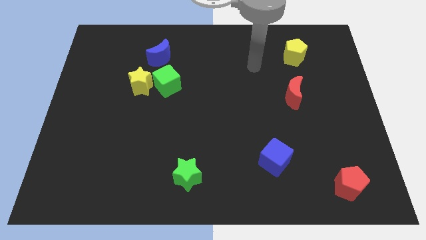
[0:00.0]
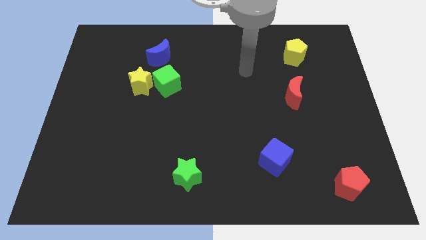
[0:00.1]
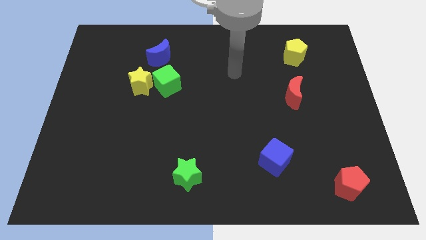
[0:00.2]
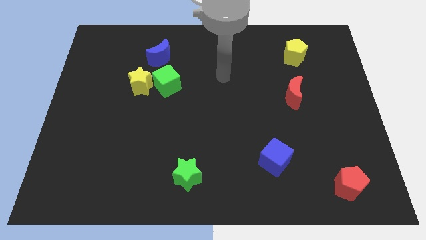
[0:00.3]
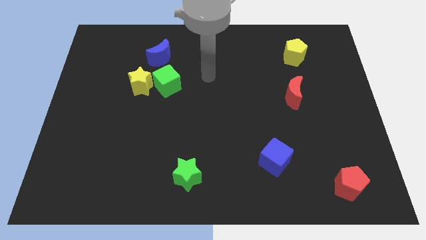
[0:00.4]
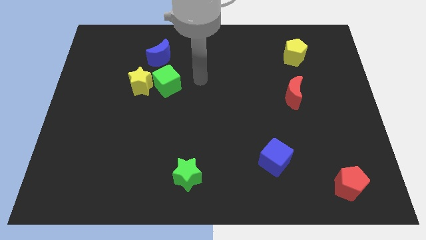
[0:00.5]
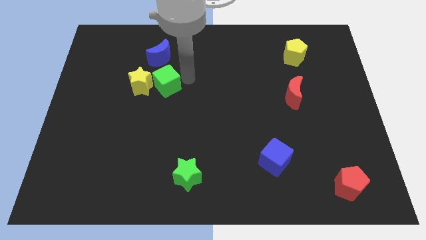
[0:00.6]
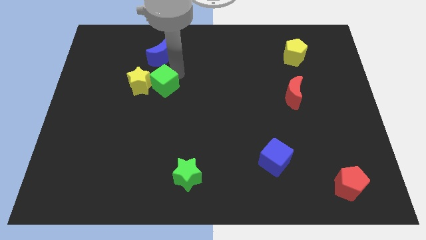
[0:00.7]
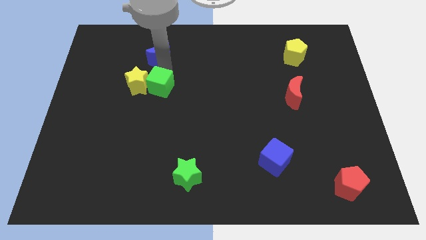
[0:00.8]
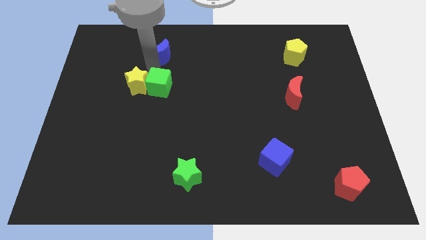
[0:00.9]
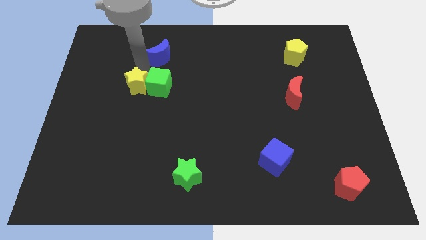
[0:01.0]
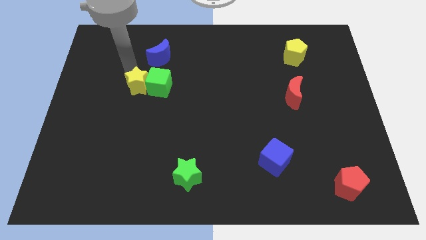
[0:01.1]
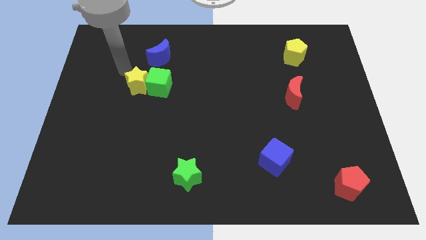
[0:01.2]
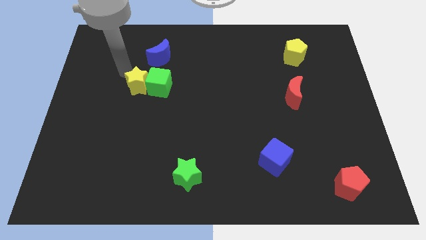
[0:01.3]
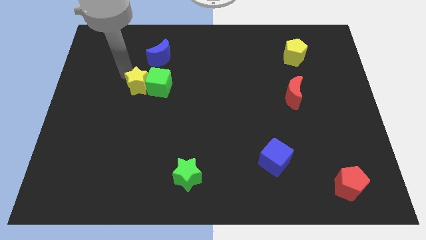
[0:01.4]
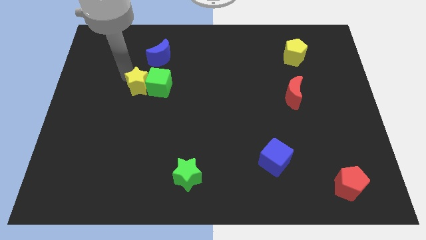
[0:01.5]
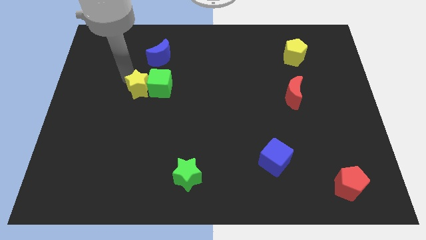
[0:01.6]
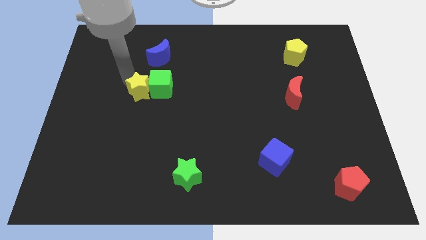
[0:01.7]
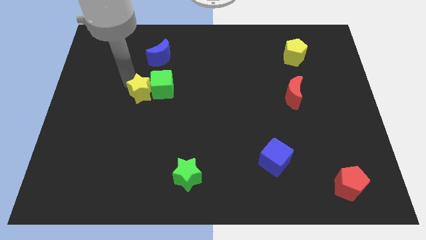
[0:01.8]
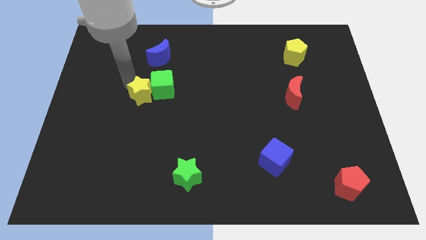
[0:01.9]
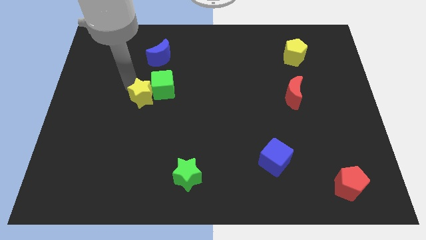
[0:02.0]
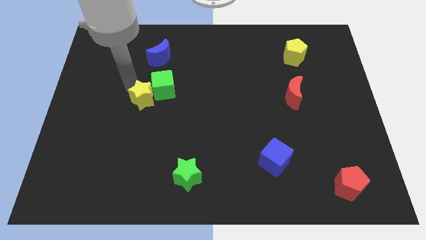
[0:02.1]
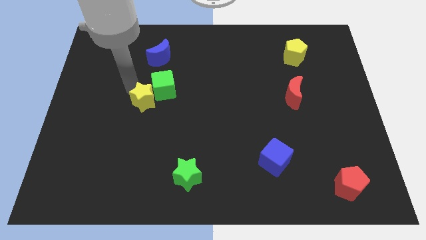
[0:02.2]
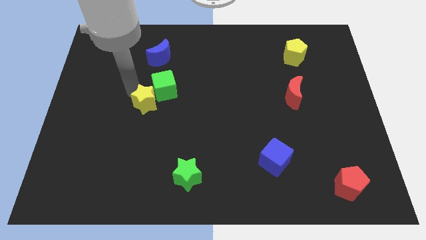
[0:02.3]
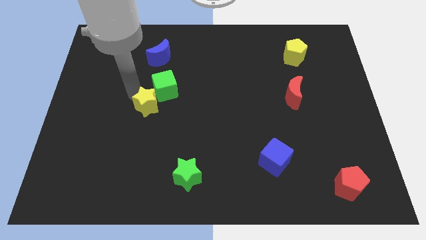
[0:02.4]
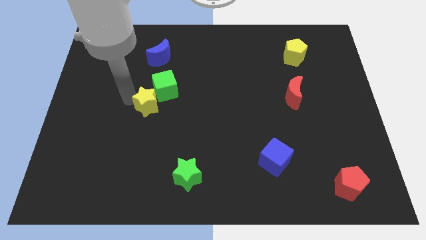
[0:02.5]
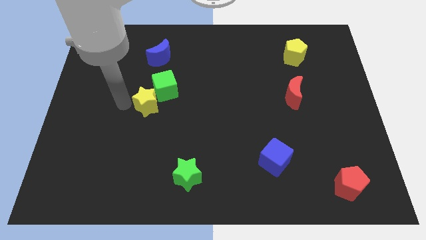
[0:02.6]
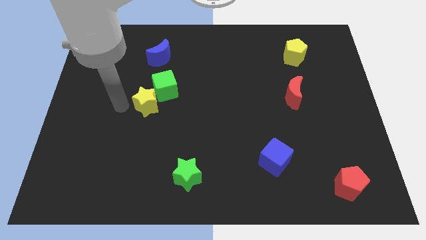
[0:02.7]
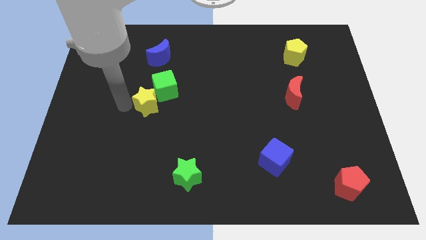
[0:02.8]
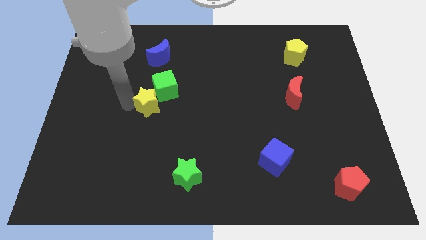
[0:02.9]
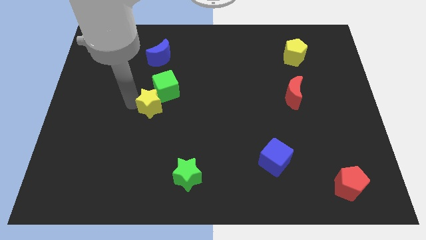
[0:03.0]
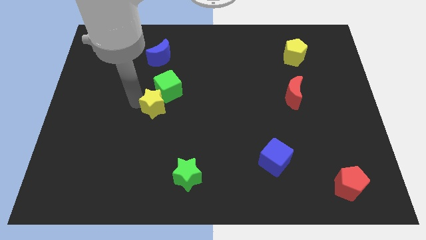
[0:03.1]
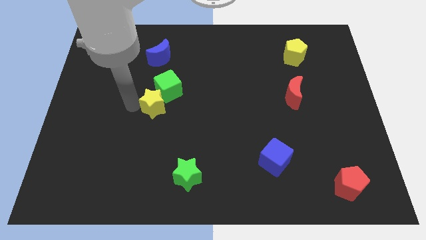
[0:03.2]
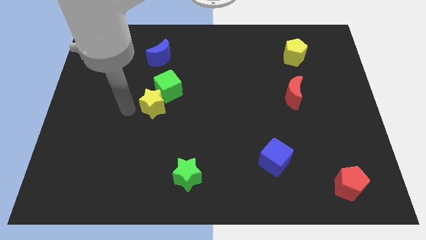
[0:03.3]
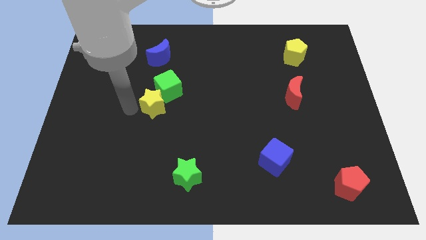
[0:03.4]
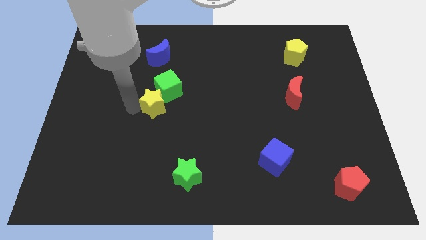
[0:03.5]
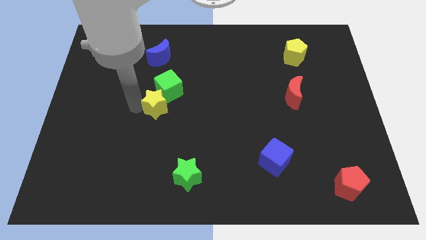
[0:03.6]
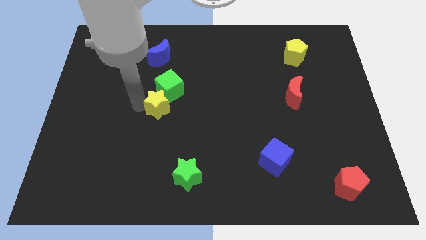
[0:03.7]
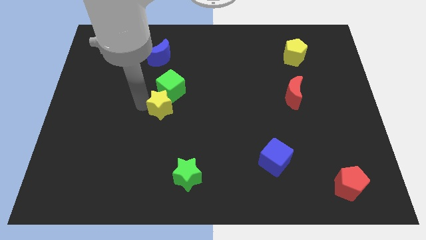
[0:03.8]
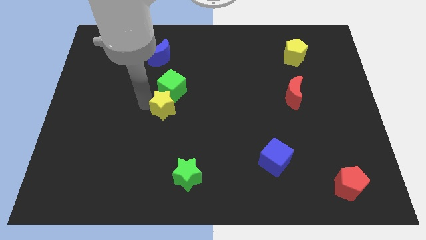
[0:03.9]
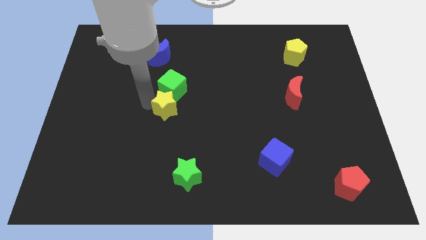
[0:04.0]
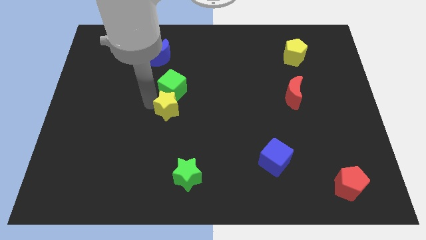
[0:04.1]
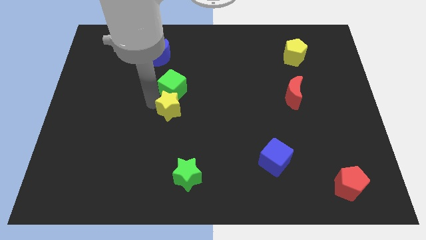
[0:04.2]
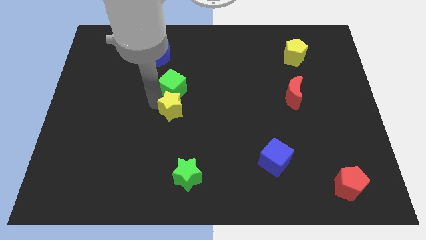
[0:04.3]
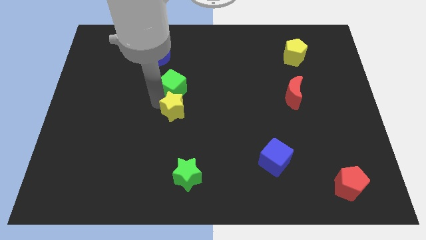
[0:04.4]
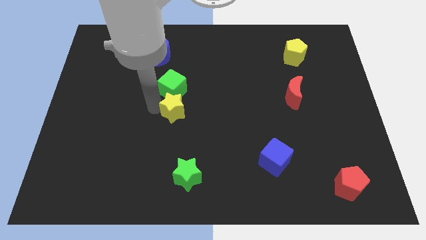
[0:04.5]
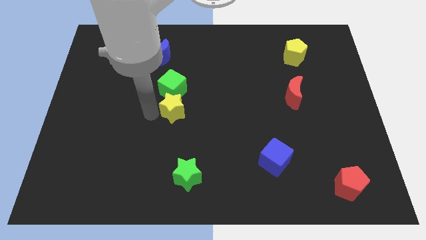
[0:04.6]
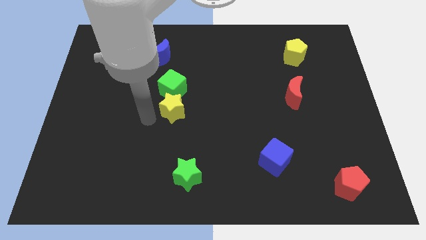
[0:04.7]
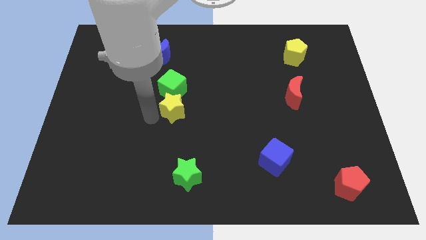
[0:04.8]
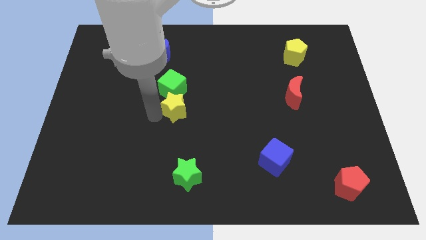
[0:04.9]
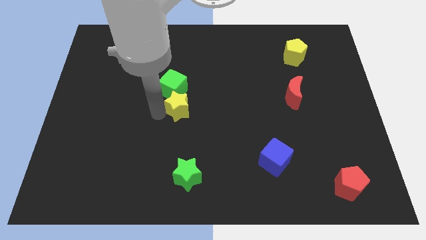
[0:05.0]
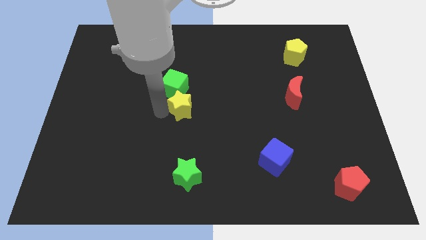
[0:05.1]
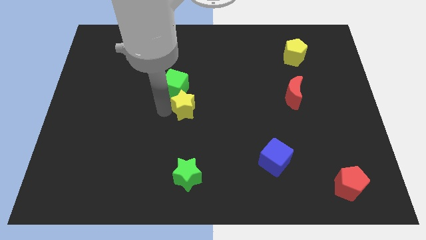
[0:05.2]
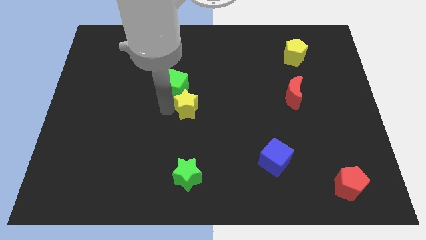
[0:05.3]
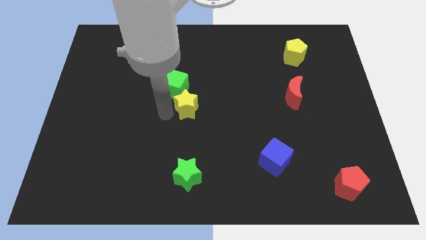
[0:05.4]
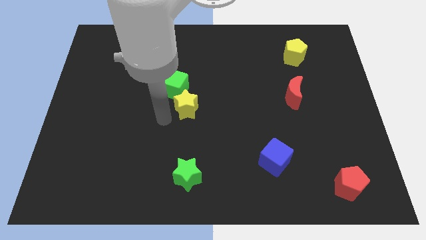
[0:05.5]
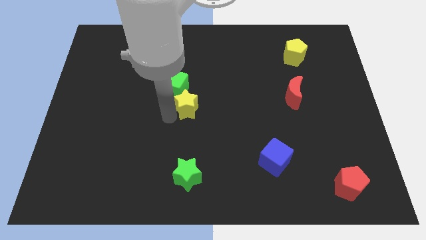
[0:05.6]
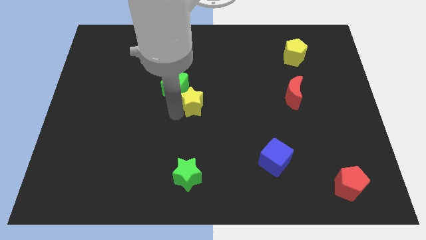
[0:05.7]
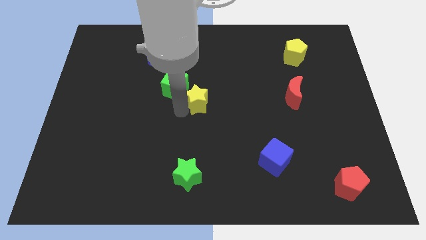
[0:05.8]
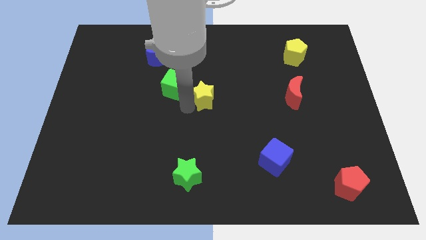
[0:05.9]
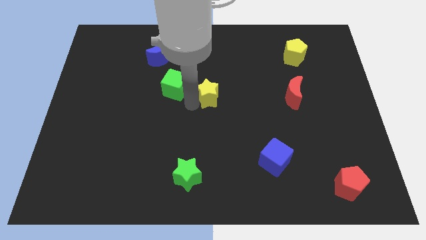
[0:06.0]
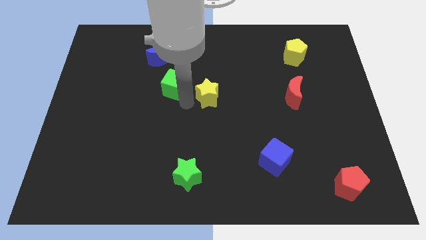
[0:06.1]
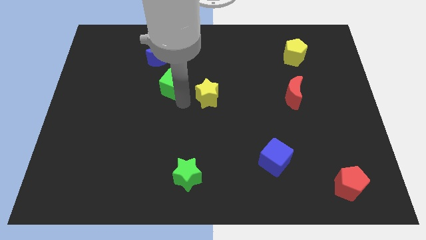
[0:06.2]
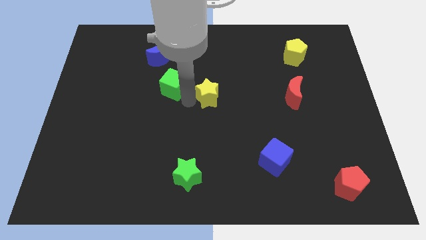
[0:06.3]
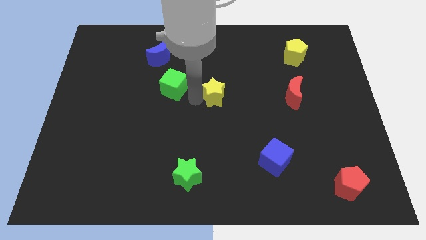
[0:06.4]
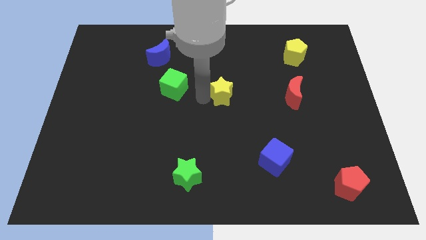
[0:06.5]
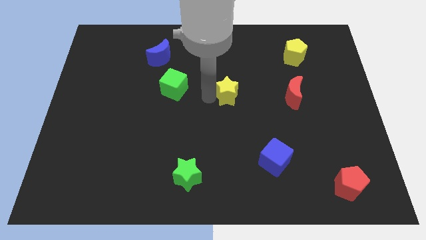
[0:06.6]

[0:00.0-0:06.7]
slide the yellow star right

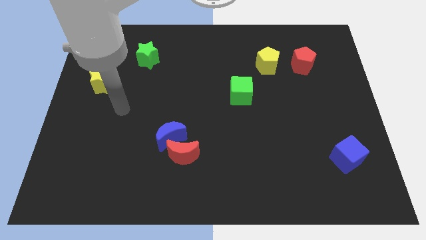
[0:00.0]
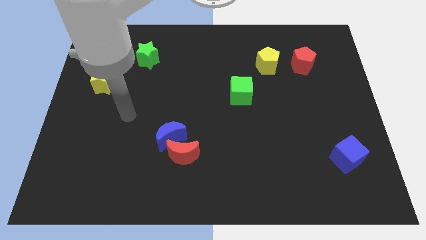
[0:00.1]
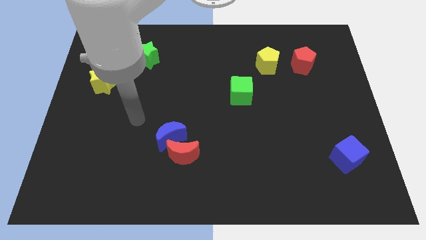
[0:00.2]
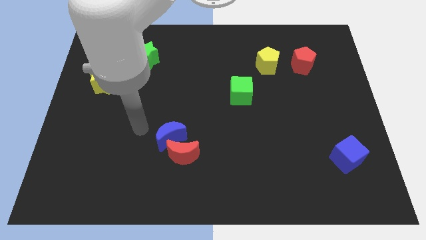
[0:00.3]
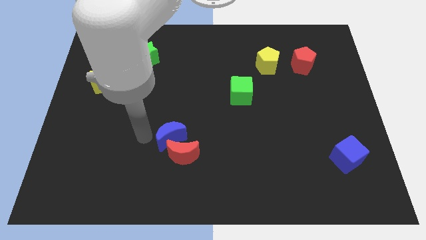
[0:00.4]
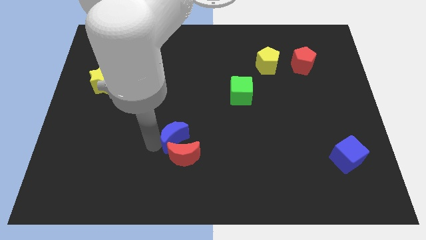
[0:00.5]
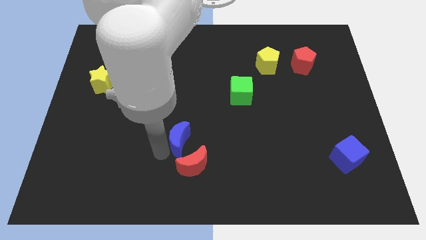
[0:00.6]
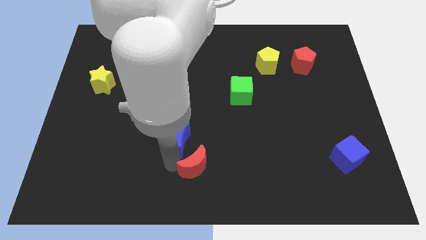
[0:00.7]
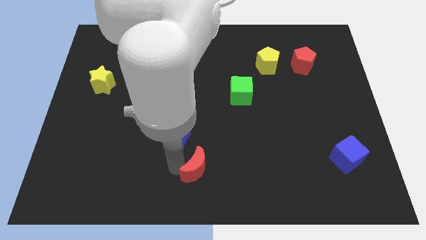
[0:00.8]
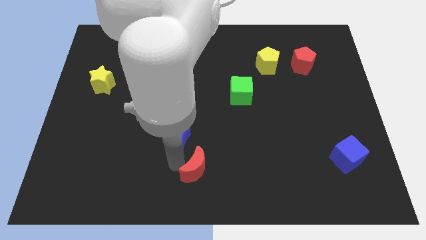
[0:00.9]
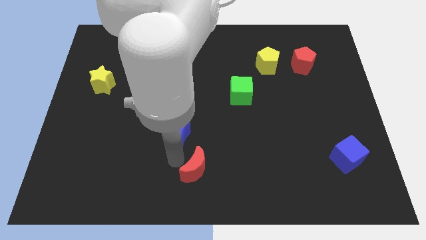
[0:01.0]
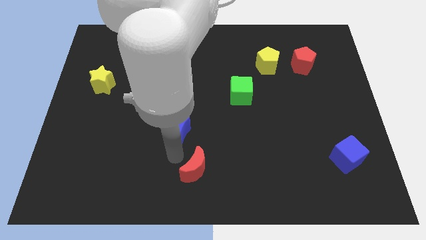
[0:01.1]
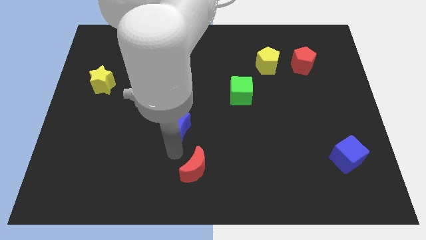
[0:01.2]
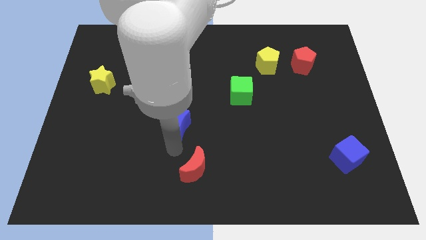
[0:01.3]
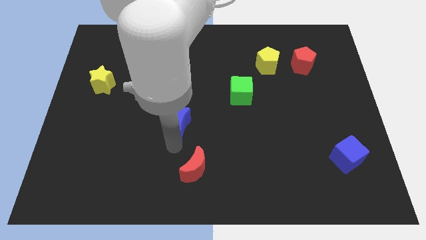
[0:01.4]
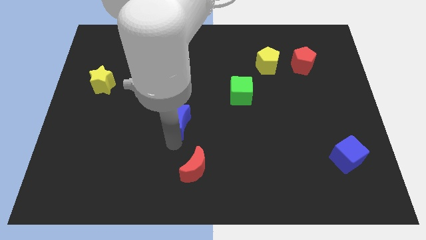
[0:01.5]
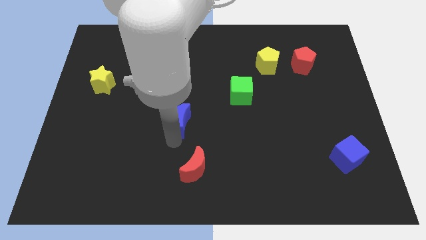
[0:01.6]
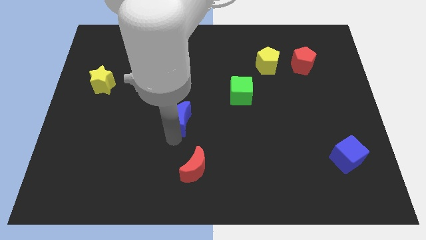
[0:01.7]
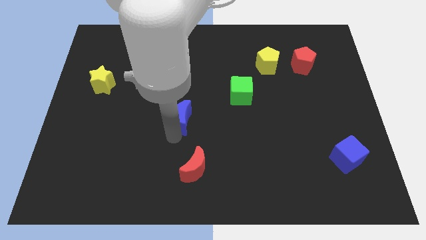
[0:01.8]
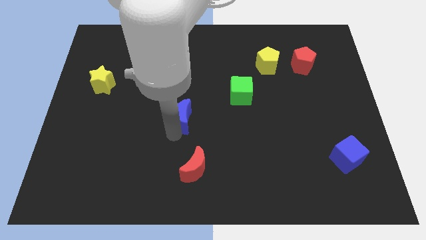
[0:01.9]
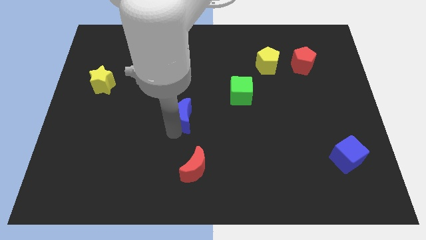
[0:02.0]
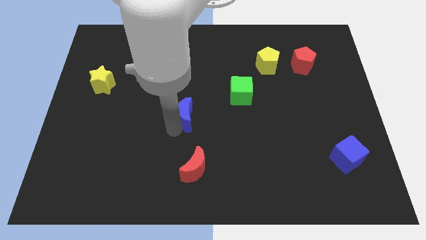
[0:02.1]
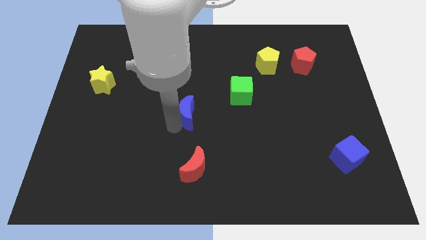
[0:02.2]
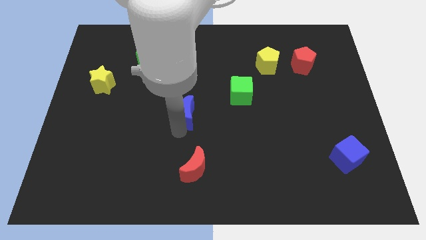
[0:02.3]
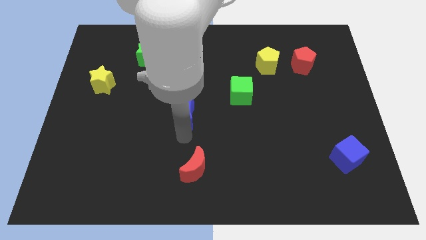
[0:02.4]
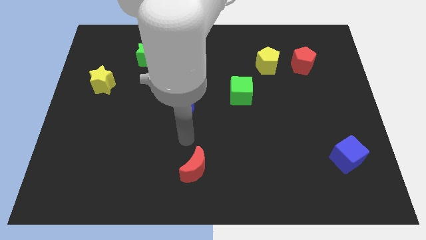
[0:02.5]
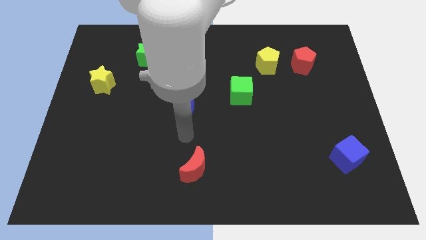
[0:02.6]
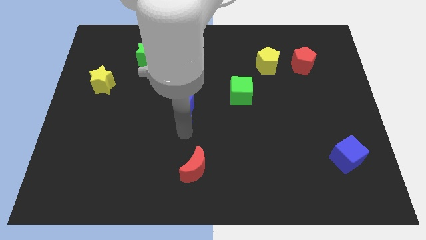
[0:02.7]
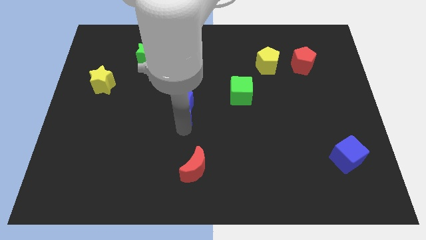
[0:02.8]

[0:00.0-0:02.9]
move the blue moon a little up
